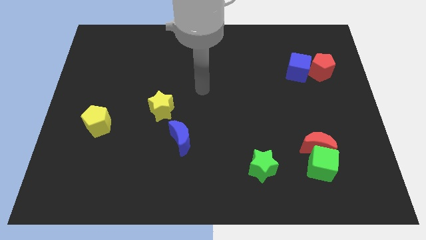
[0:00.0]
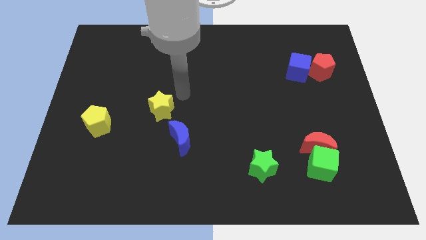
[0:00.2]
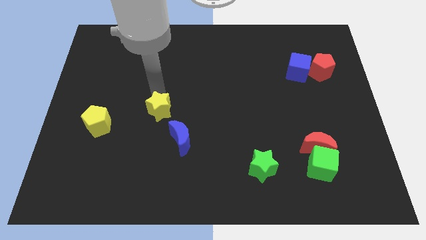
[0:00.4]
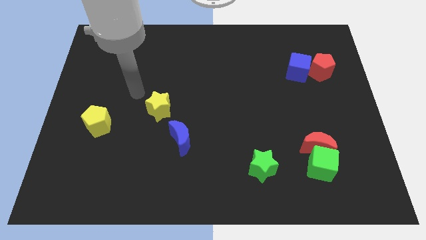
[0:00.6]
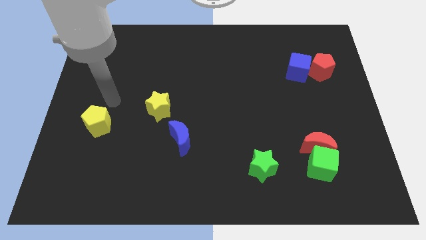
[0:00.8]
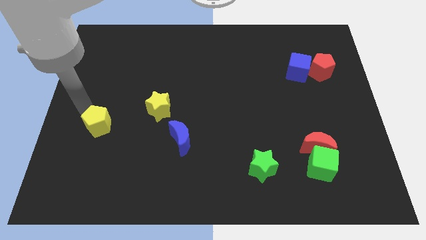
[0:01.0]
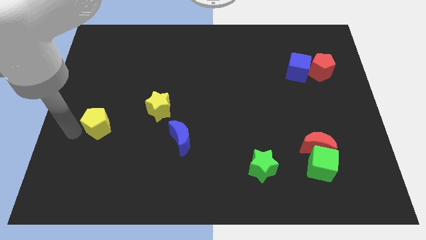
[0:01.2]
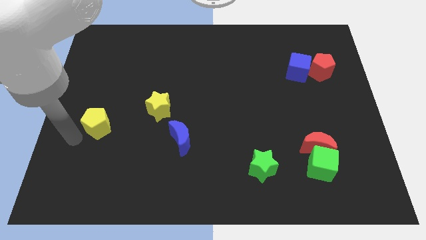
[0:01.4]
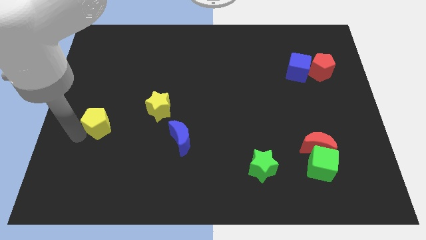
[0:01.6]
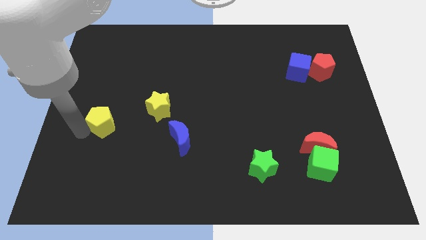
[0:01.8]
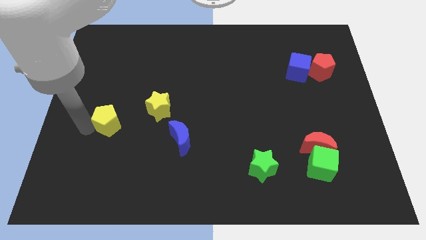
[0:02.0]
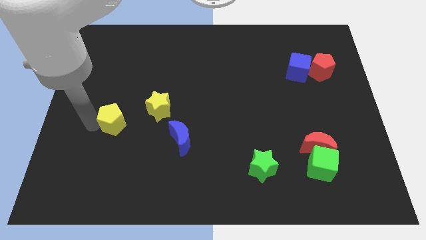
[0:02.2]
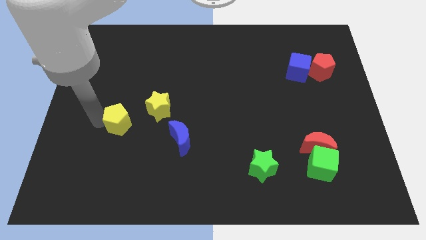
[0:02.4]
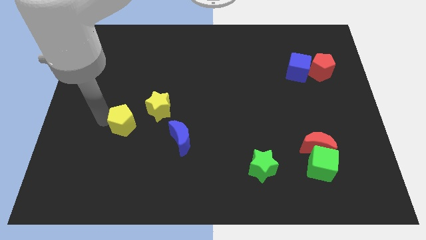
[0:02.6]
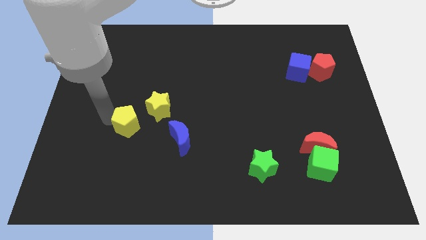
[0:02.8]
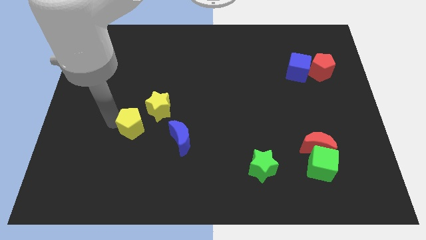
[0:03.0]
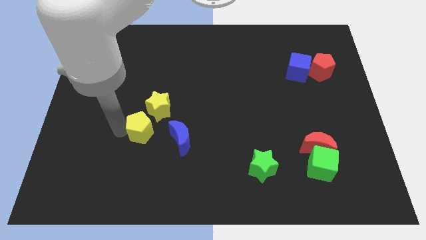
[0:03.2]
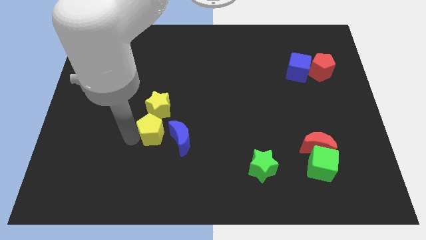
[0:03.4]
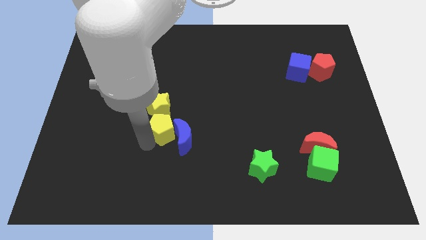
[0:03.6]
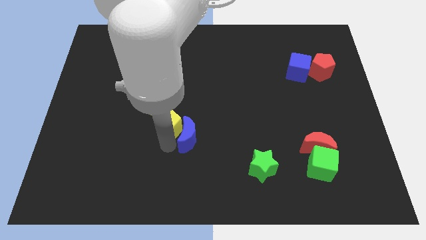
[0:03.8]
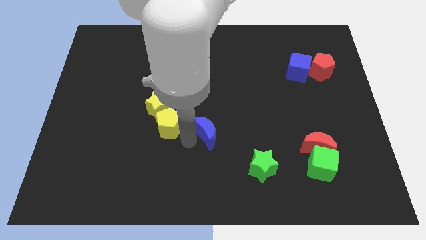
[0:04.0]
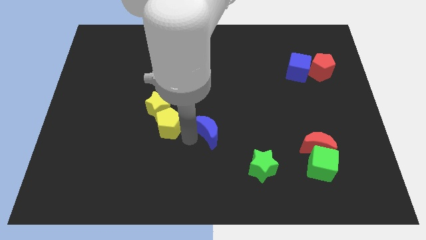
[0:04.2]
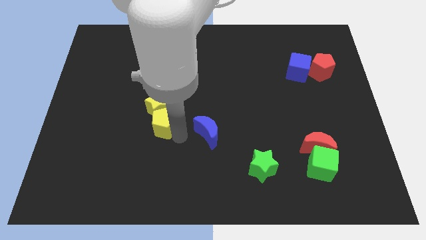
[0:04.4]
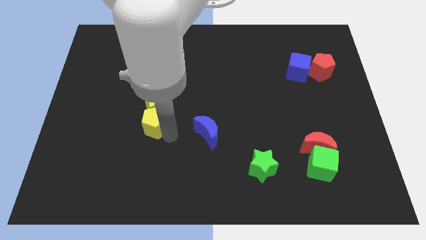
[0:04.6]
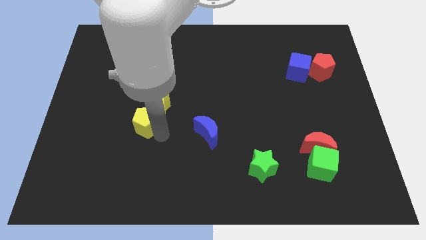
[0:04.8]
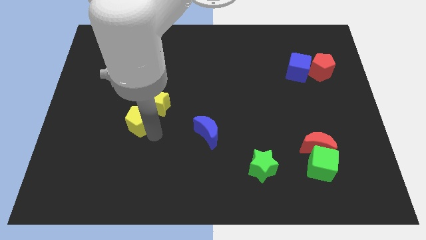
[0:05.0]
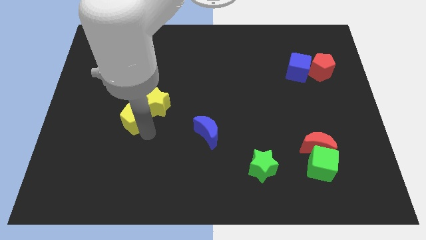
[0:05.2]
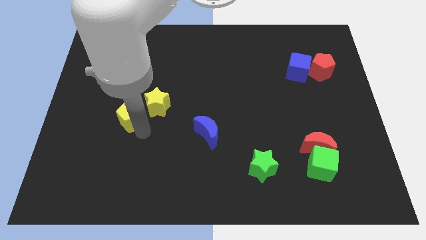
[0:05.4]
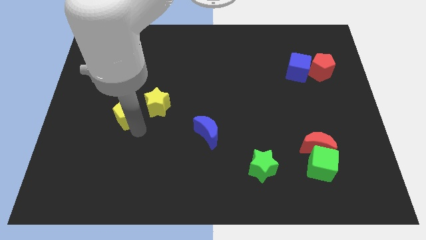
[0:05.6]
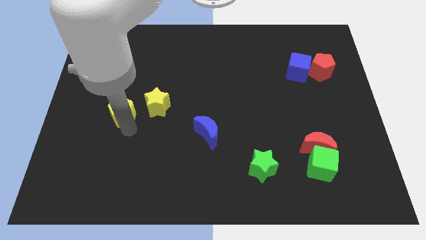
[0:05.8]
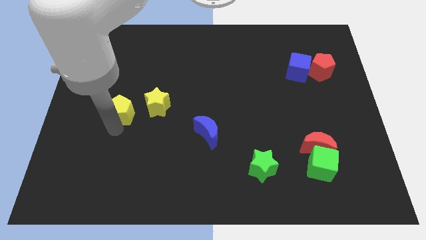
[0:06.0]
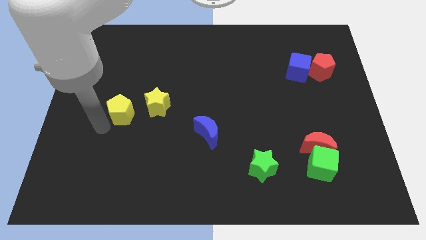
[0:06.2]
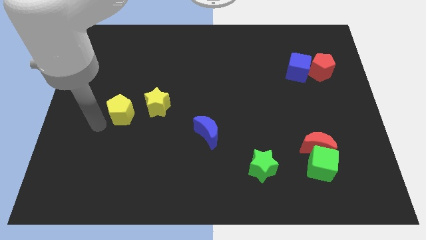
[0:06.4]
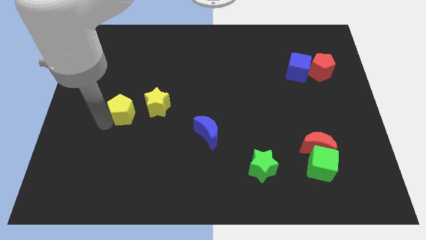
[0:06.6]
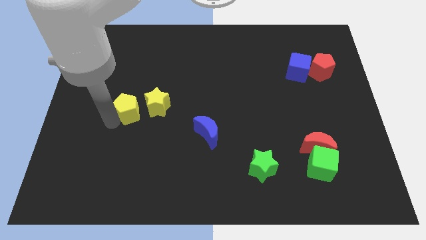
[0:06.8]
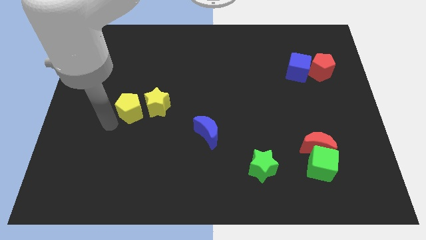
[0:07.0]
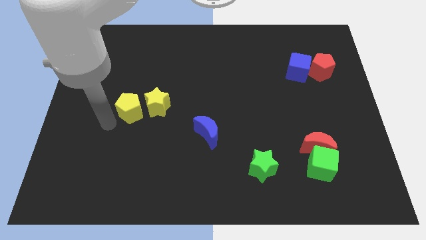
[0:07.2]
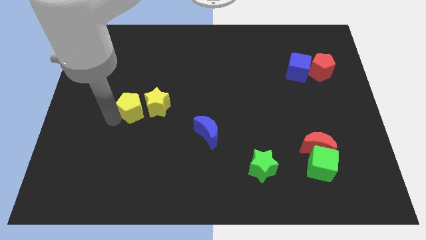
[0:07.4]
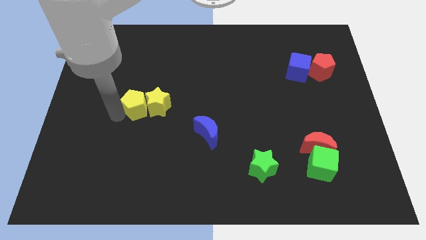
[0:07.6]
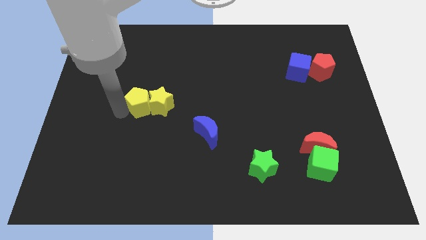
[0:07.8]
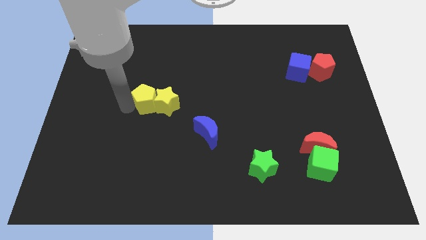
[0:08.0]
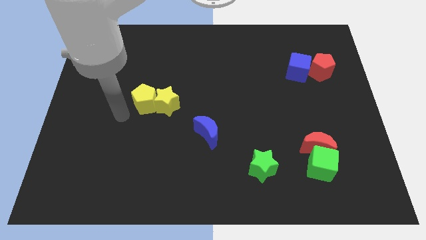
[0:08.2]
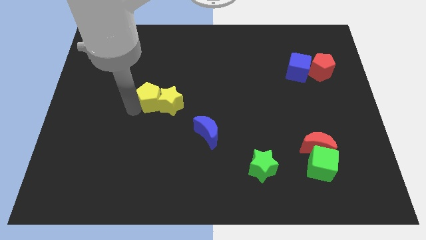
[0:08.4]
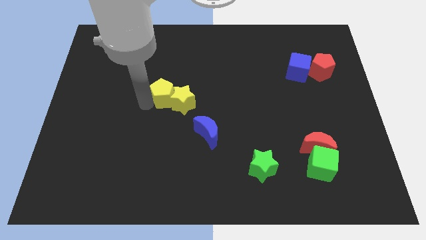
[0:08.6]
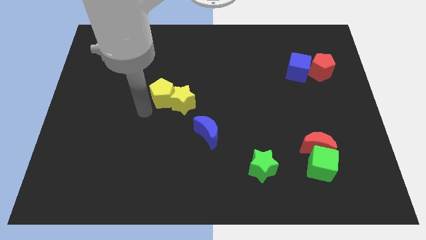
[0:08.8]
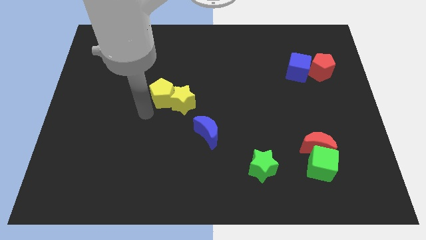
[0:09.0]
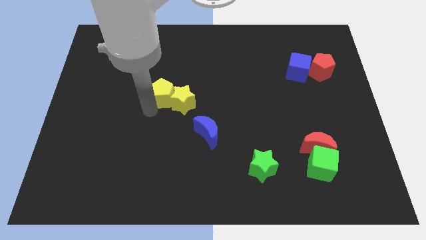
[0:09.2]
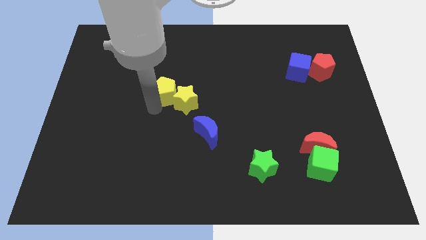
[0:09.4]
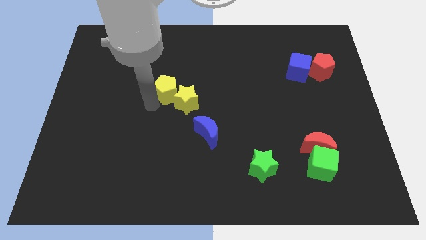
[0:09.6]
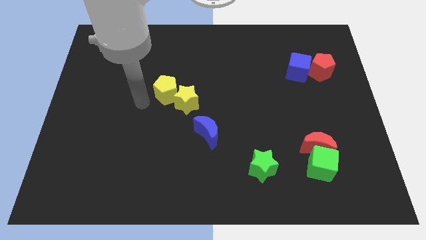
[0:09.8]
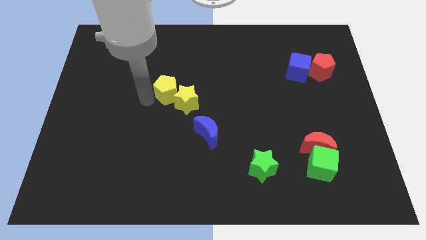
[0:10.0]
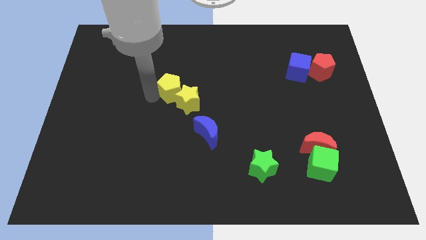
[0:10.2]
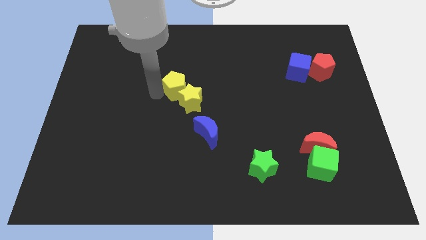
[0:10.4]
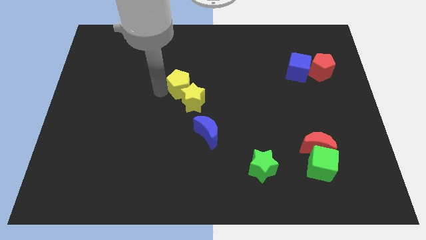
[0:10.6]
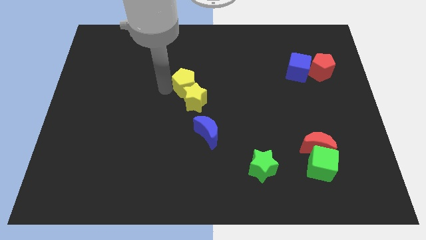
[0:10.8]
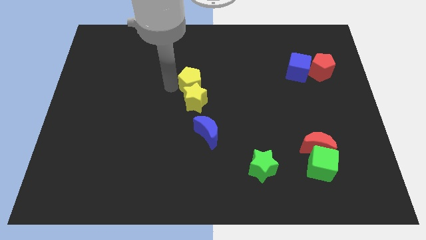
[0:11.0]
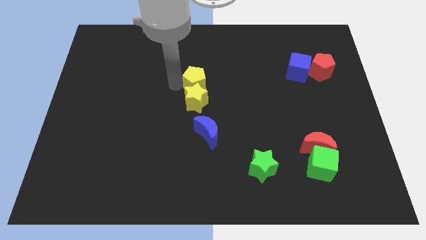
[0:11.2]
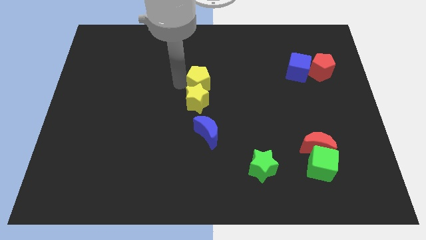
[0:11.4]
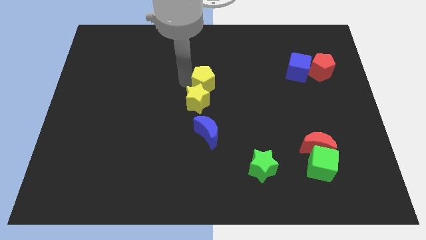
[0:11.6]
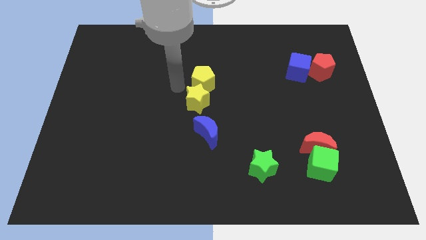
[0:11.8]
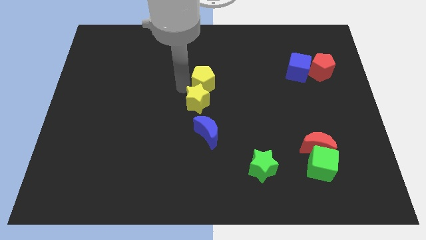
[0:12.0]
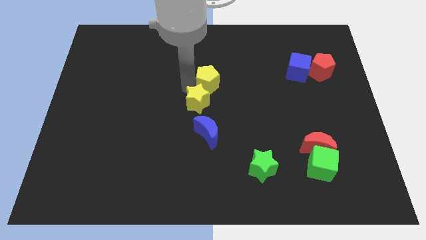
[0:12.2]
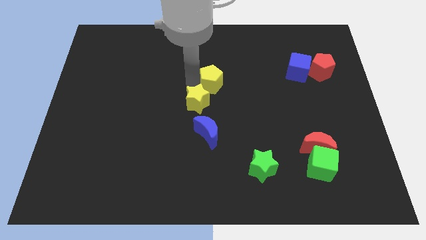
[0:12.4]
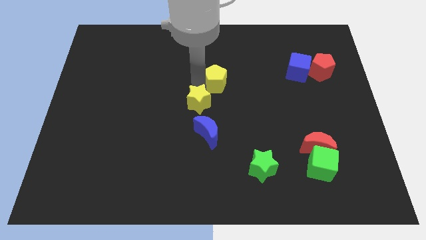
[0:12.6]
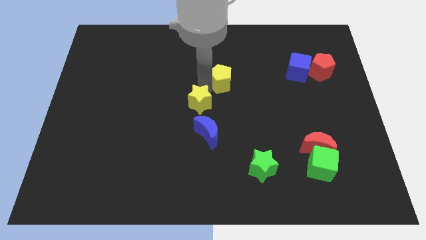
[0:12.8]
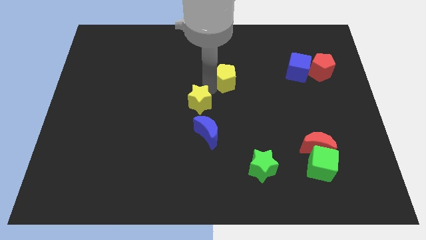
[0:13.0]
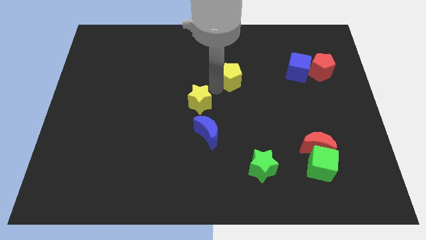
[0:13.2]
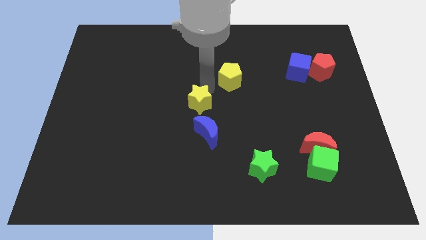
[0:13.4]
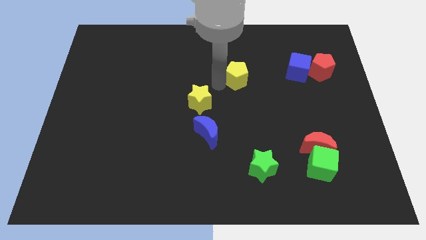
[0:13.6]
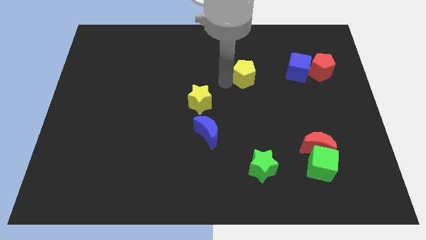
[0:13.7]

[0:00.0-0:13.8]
push the yellow pentagon to the left side of the blue cube
